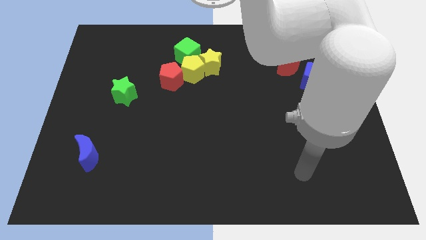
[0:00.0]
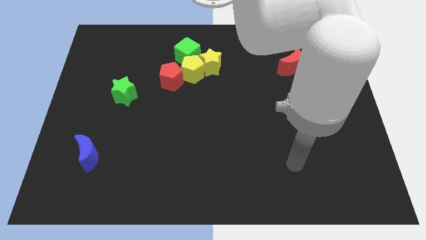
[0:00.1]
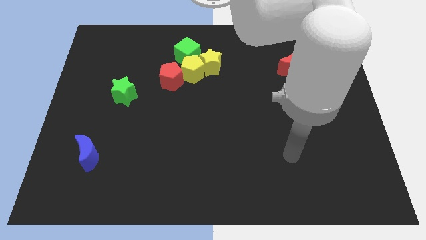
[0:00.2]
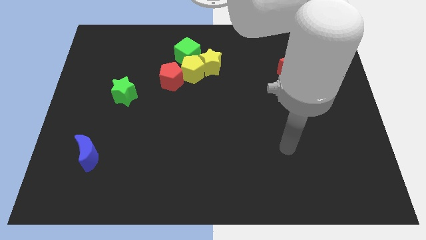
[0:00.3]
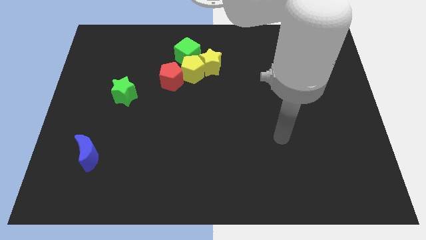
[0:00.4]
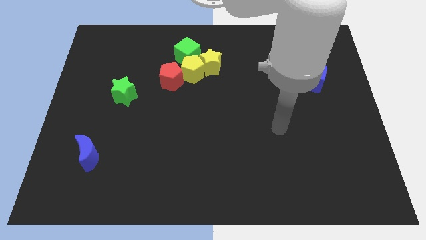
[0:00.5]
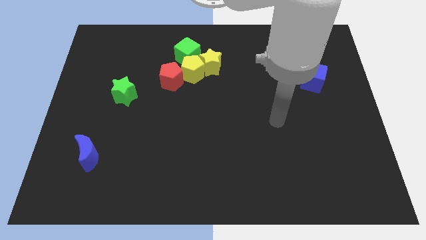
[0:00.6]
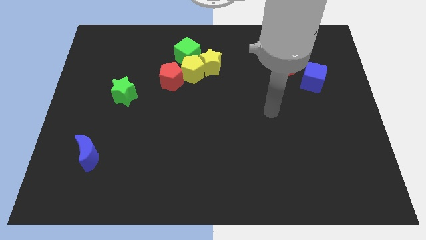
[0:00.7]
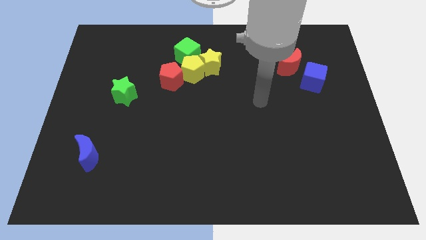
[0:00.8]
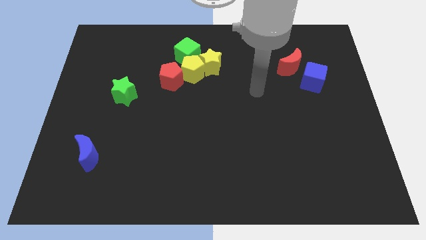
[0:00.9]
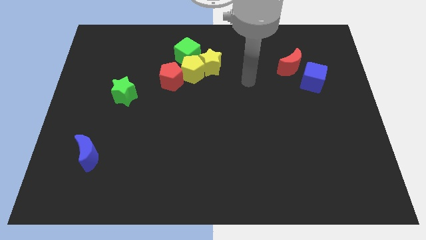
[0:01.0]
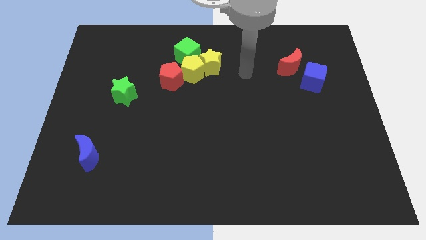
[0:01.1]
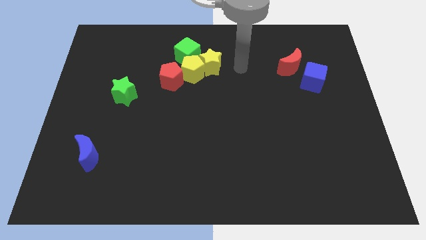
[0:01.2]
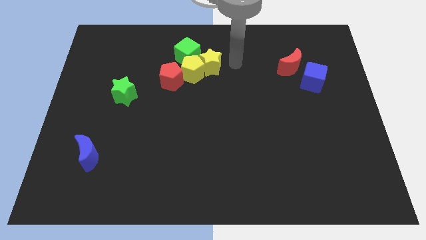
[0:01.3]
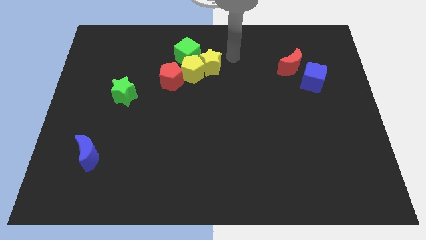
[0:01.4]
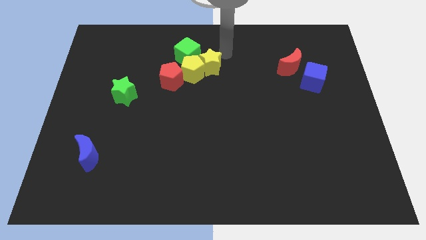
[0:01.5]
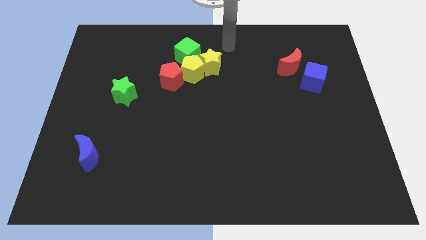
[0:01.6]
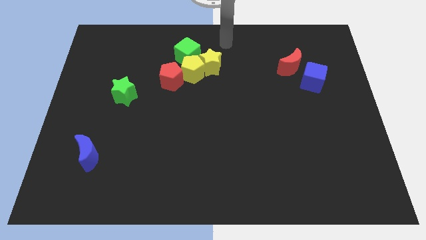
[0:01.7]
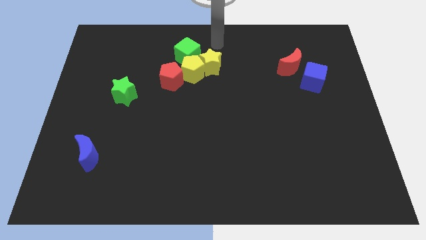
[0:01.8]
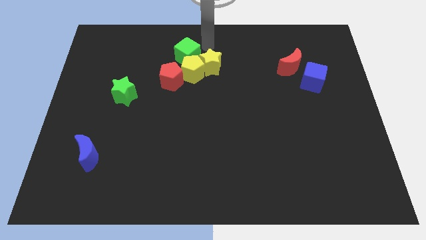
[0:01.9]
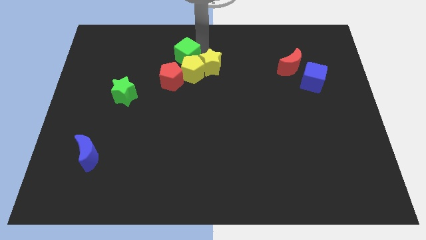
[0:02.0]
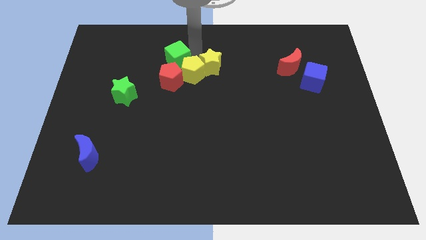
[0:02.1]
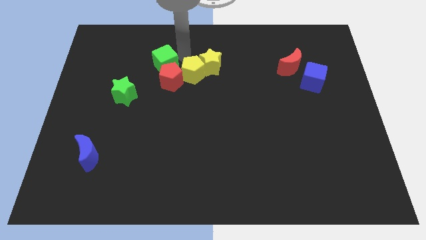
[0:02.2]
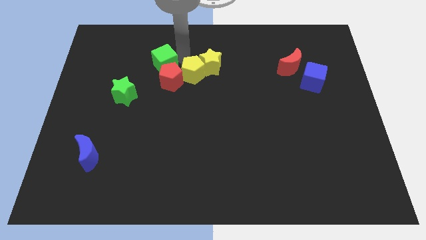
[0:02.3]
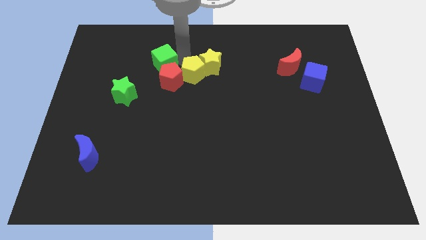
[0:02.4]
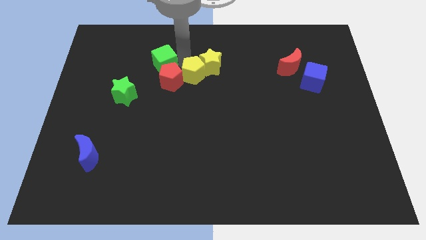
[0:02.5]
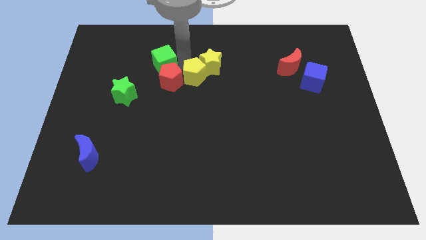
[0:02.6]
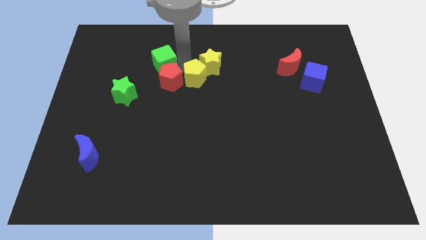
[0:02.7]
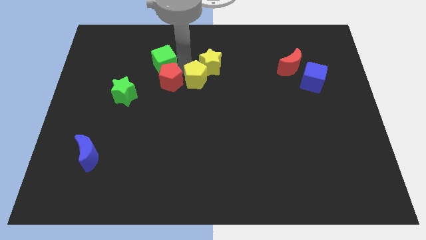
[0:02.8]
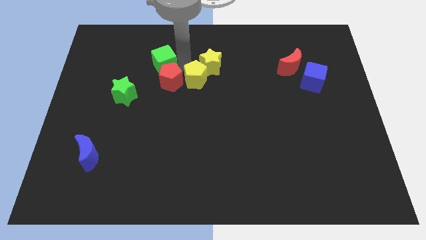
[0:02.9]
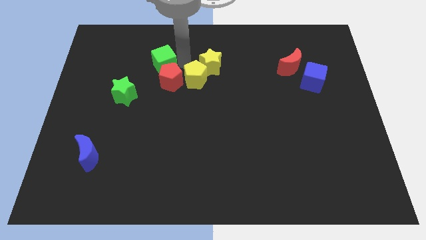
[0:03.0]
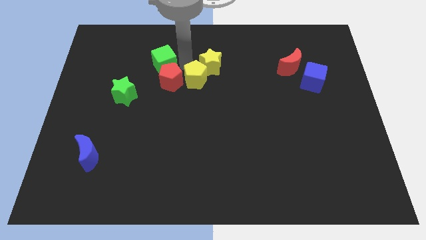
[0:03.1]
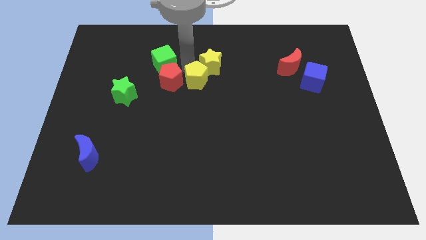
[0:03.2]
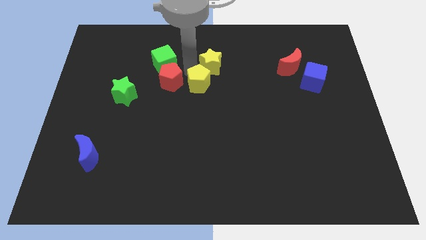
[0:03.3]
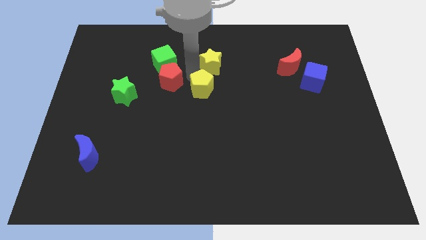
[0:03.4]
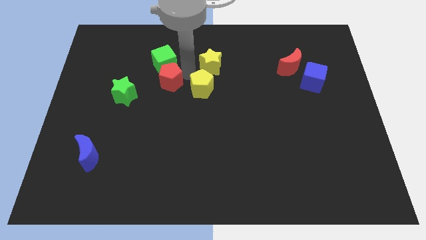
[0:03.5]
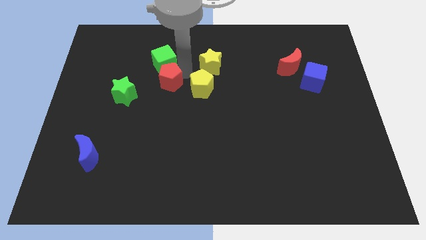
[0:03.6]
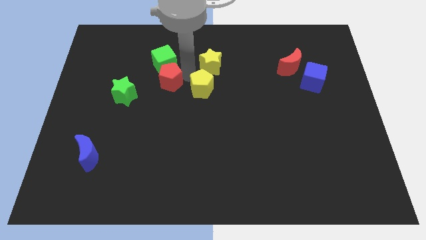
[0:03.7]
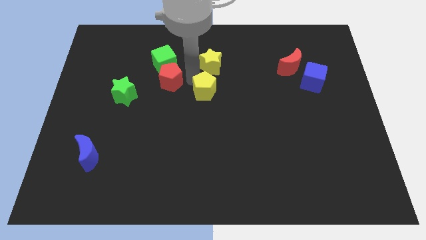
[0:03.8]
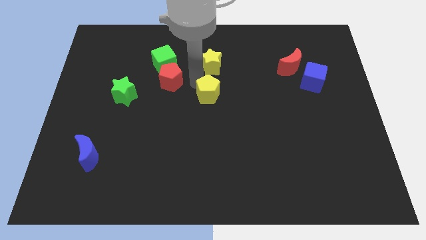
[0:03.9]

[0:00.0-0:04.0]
separate the yellow pentagon from the yellow star, red pentagon, and green cube

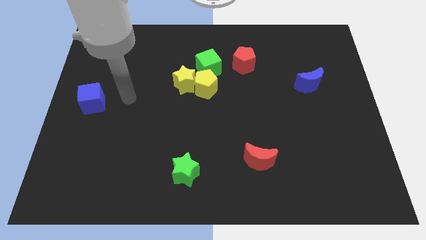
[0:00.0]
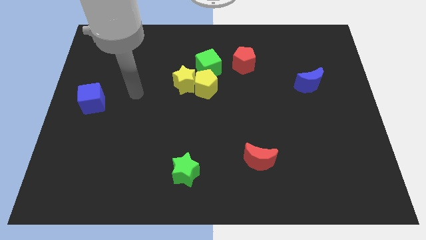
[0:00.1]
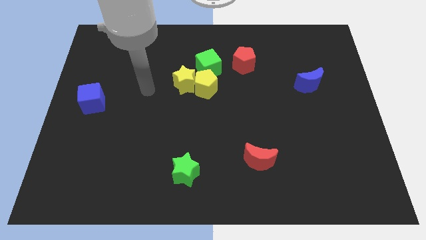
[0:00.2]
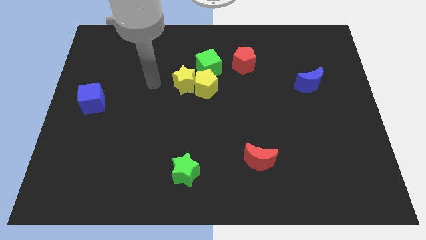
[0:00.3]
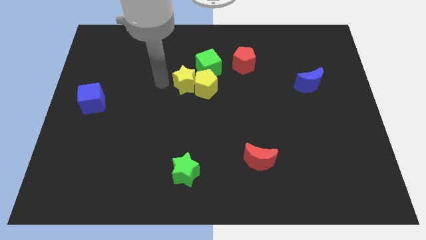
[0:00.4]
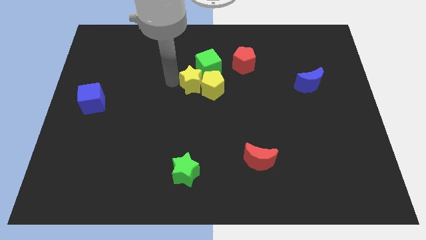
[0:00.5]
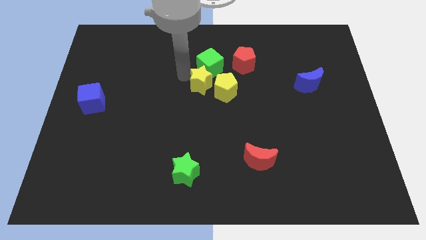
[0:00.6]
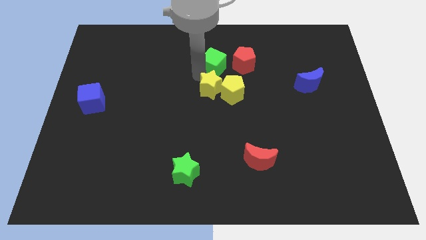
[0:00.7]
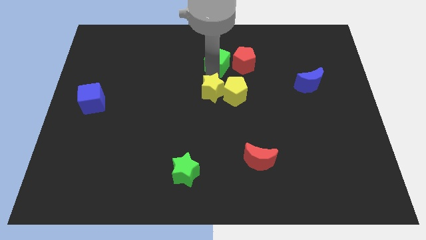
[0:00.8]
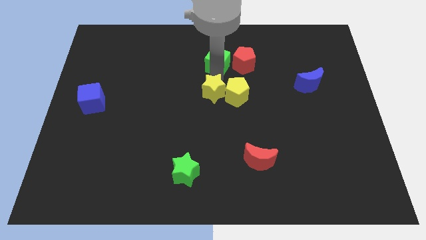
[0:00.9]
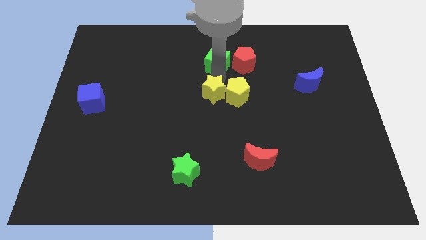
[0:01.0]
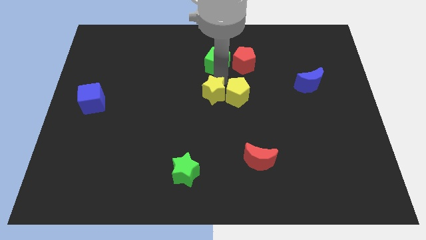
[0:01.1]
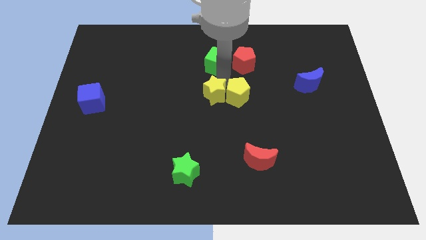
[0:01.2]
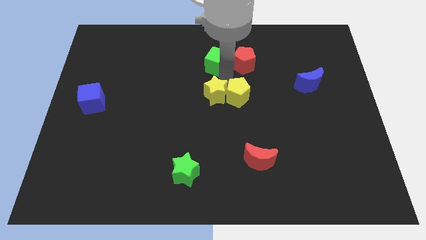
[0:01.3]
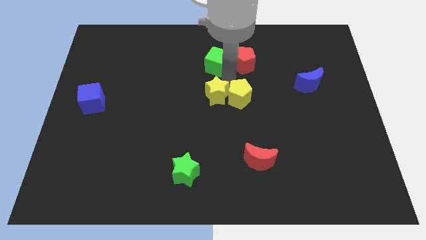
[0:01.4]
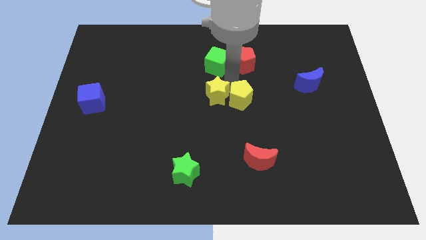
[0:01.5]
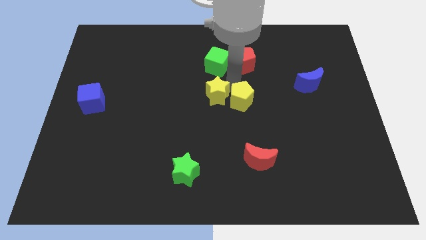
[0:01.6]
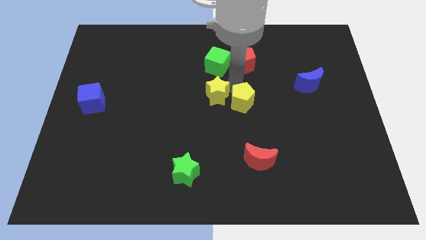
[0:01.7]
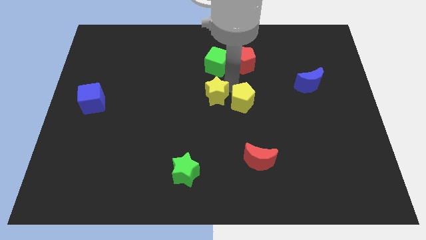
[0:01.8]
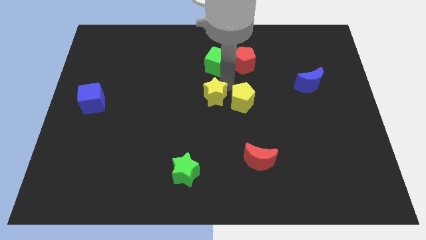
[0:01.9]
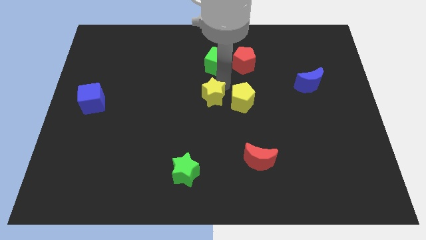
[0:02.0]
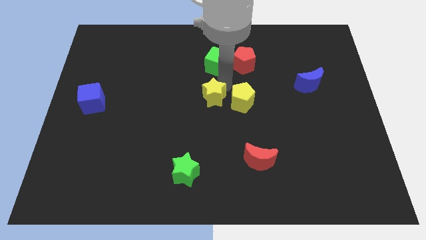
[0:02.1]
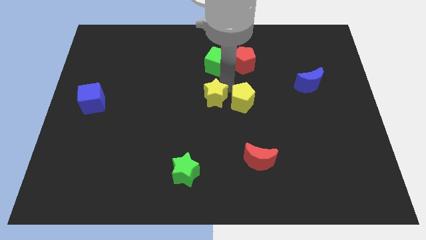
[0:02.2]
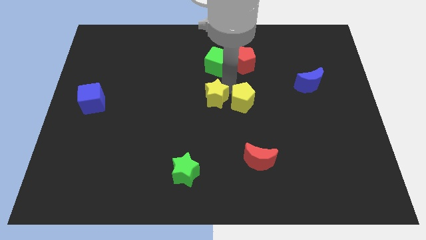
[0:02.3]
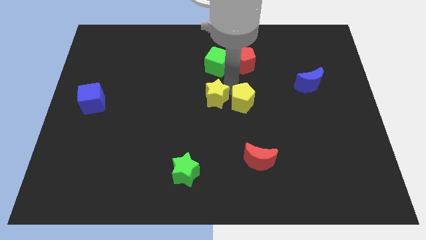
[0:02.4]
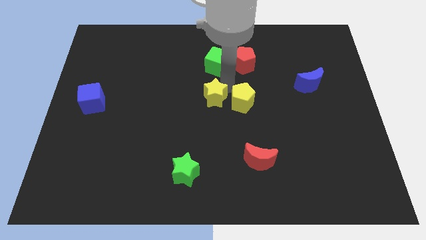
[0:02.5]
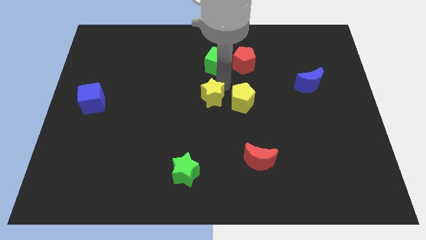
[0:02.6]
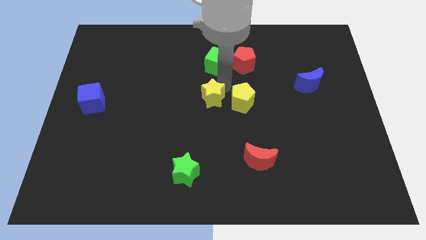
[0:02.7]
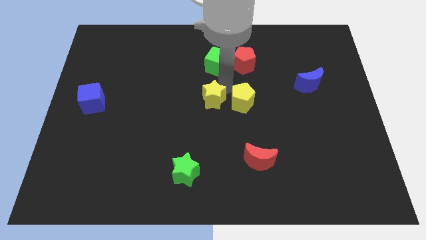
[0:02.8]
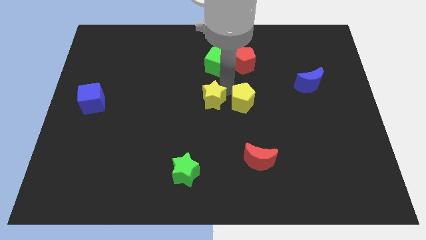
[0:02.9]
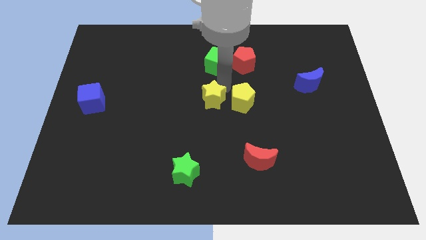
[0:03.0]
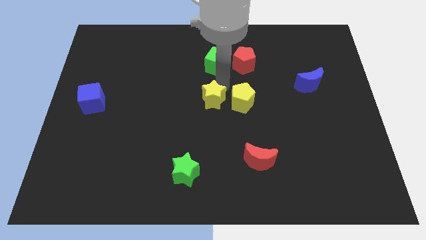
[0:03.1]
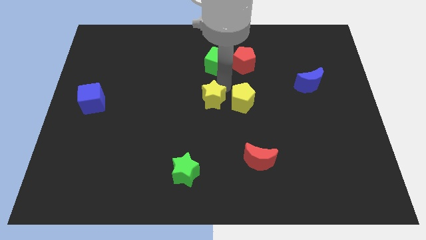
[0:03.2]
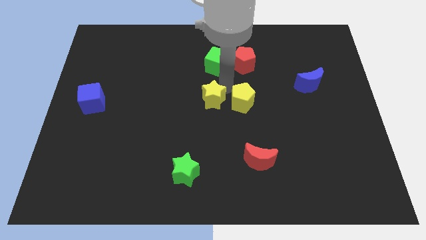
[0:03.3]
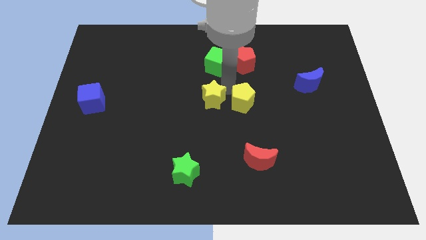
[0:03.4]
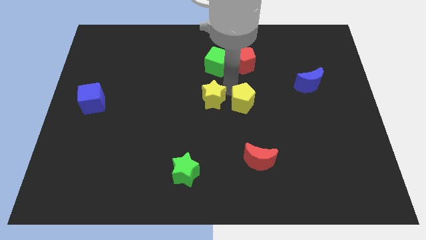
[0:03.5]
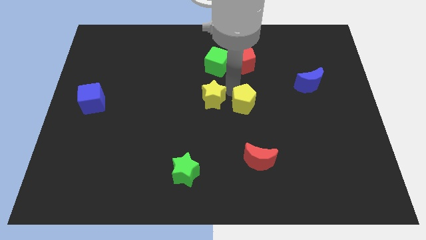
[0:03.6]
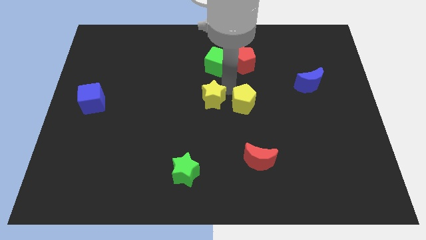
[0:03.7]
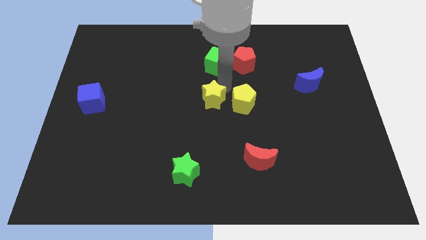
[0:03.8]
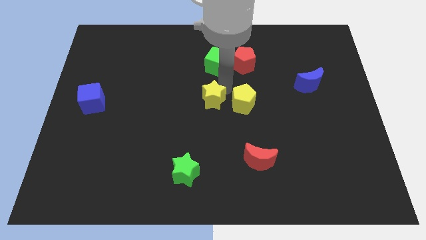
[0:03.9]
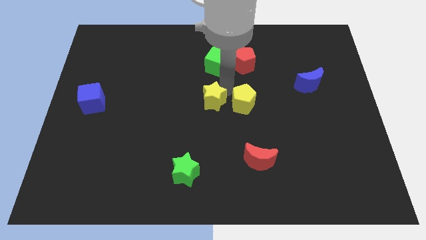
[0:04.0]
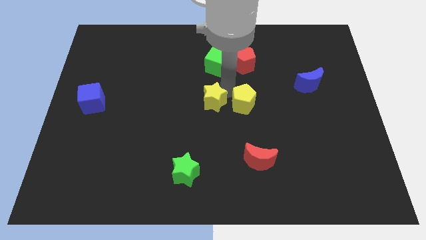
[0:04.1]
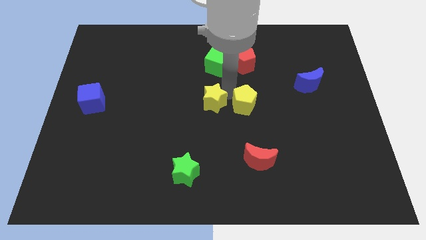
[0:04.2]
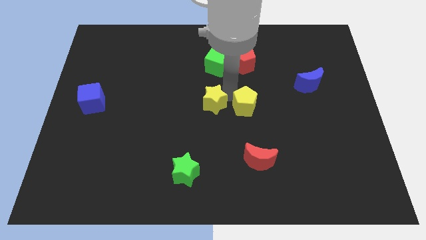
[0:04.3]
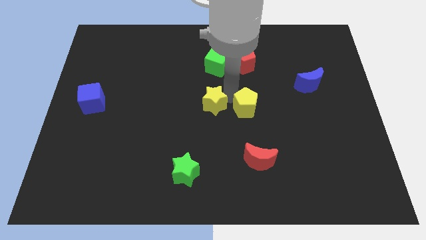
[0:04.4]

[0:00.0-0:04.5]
pull the yellow pentagon apart from the yellow star and green cube

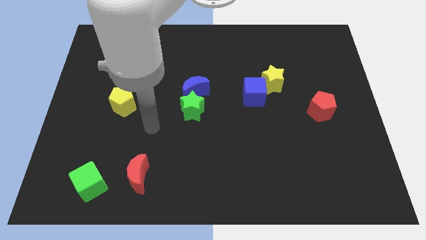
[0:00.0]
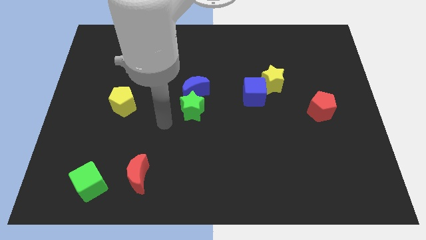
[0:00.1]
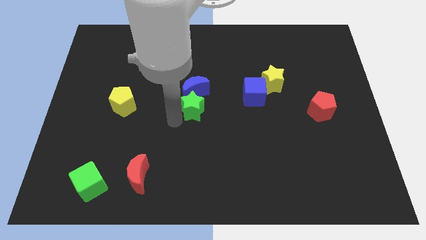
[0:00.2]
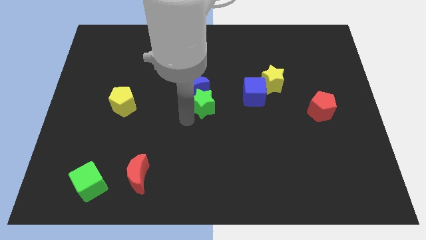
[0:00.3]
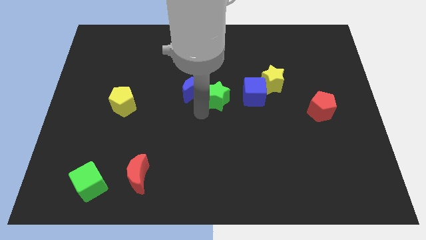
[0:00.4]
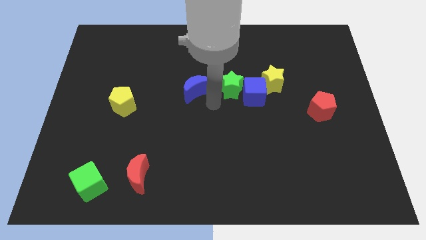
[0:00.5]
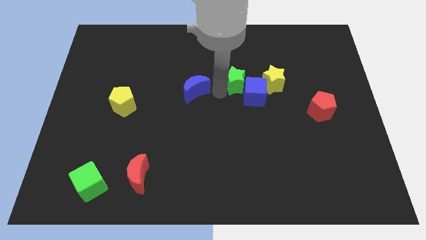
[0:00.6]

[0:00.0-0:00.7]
move the blue moon away from the green star
